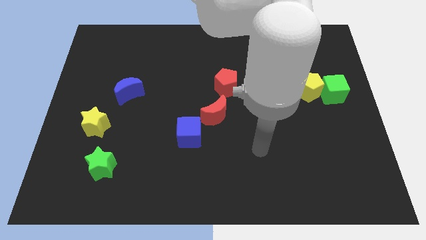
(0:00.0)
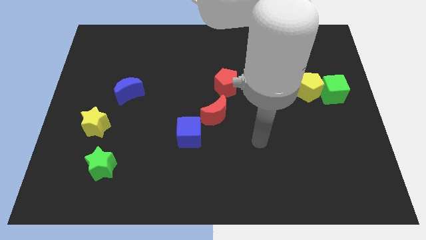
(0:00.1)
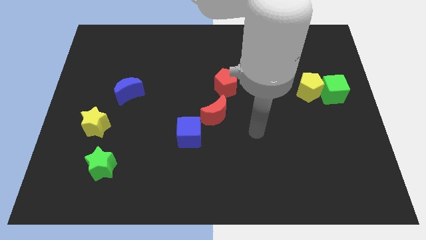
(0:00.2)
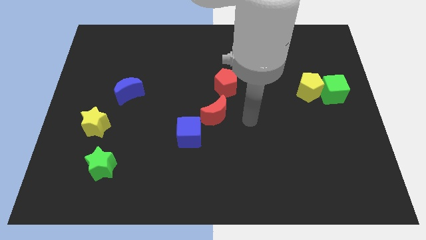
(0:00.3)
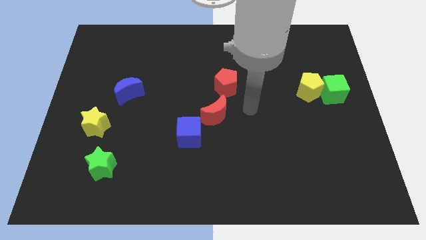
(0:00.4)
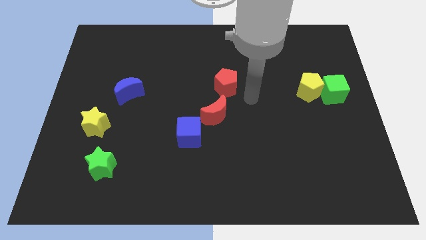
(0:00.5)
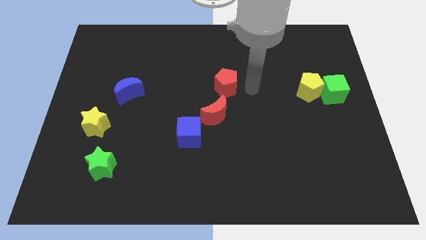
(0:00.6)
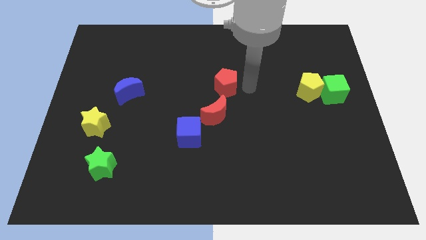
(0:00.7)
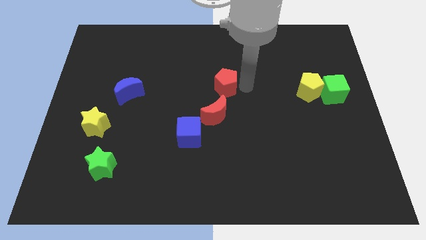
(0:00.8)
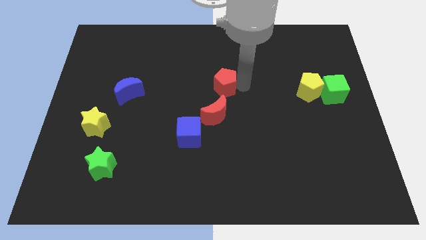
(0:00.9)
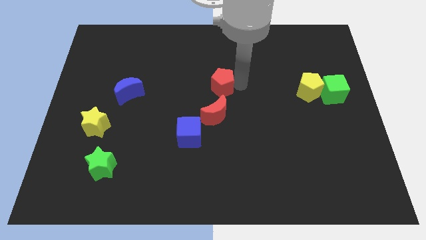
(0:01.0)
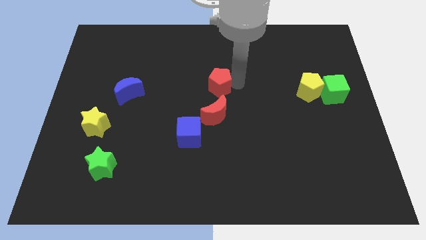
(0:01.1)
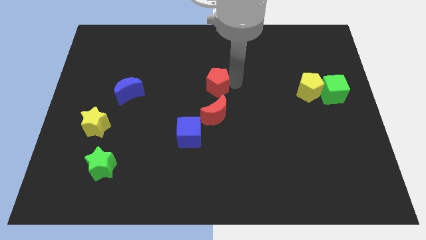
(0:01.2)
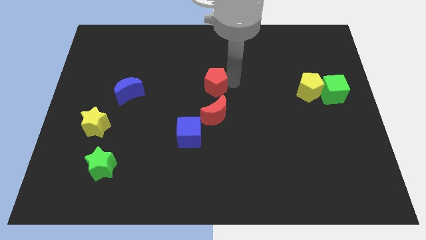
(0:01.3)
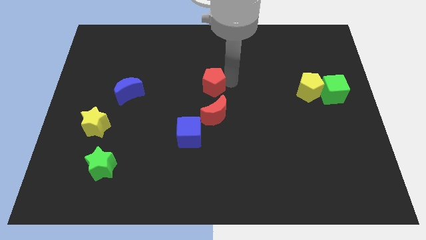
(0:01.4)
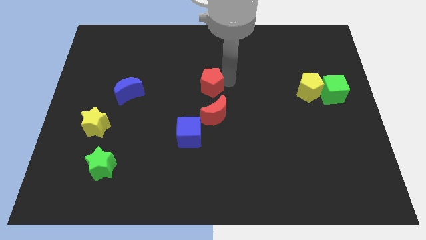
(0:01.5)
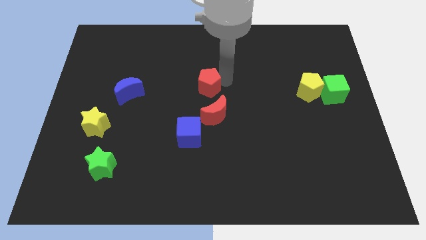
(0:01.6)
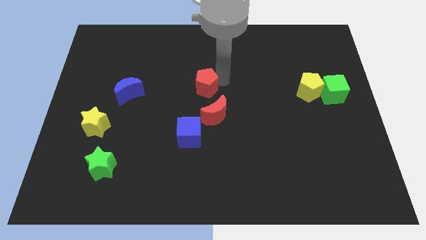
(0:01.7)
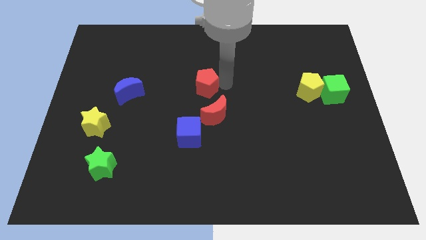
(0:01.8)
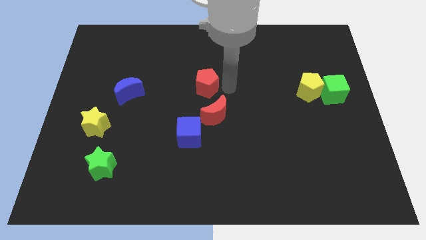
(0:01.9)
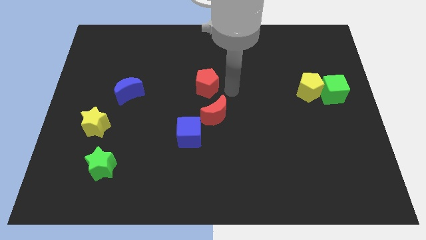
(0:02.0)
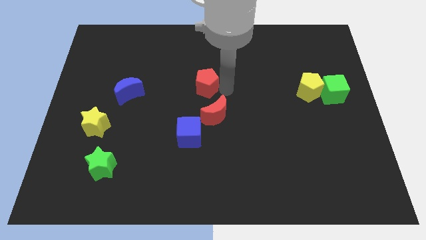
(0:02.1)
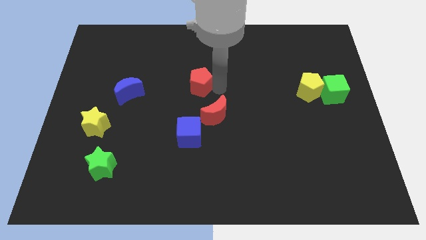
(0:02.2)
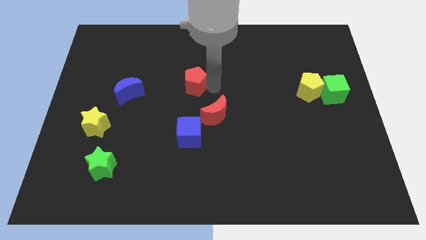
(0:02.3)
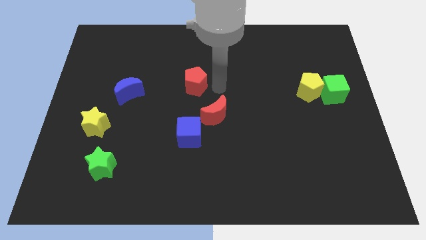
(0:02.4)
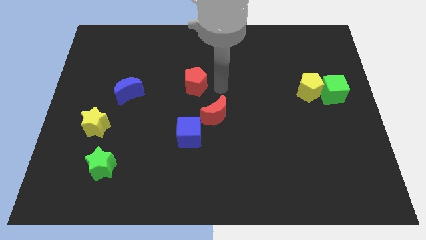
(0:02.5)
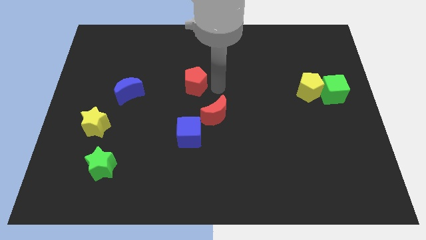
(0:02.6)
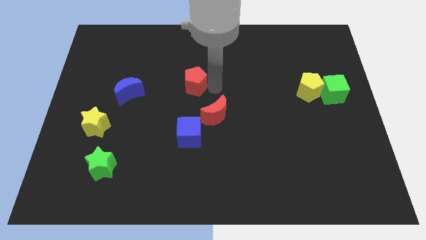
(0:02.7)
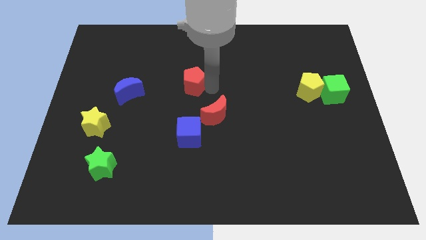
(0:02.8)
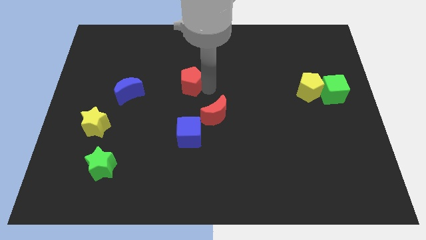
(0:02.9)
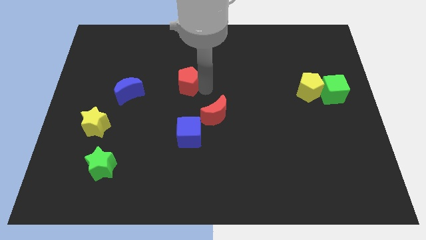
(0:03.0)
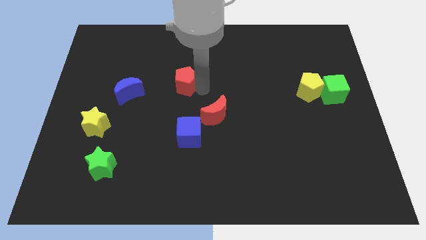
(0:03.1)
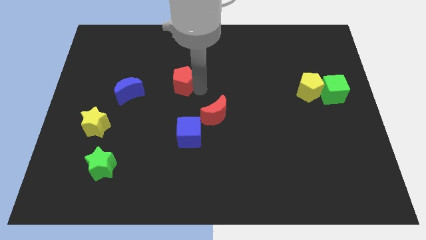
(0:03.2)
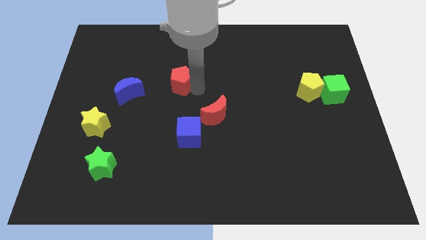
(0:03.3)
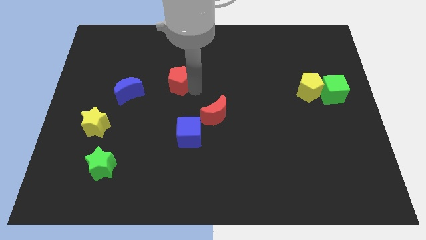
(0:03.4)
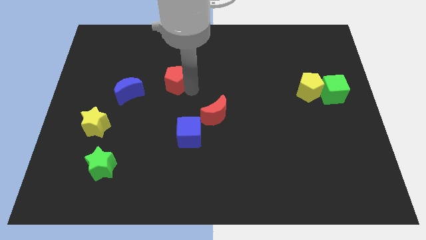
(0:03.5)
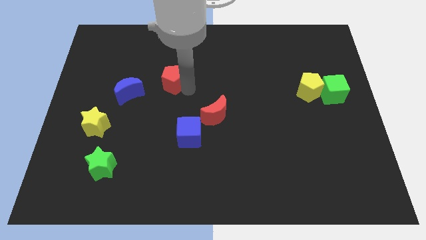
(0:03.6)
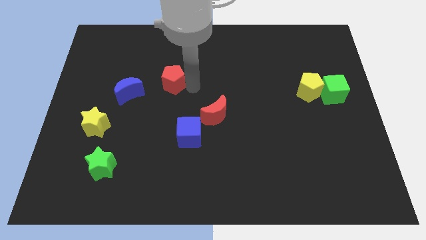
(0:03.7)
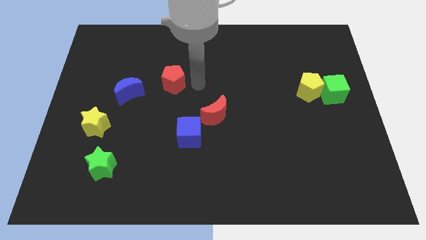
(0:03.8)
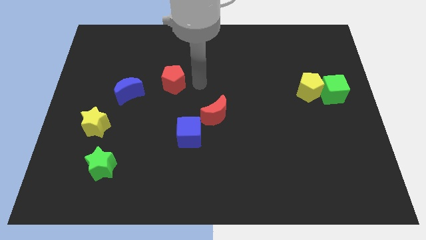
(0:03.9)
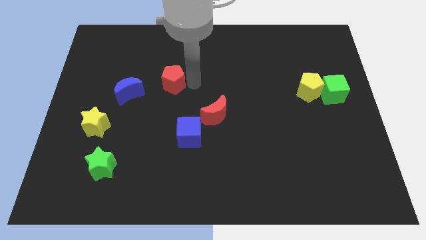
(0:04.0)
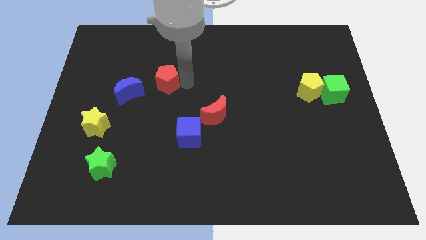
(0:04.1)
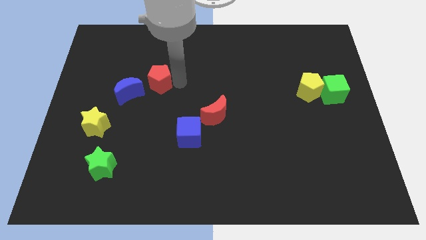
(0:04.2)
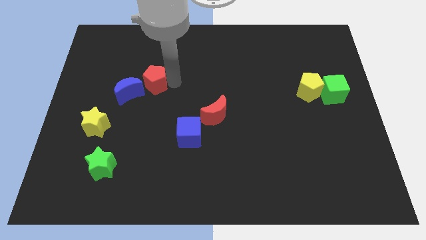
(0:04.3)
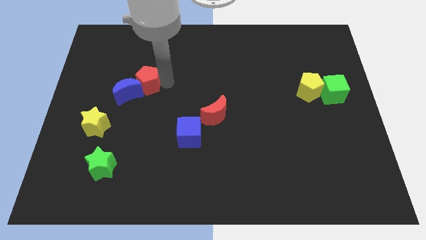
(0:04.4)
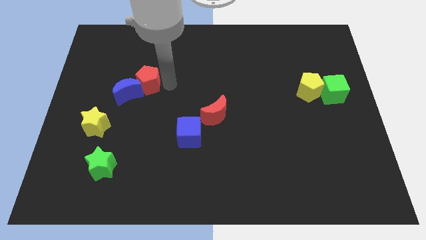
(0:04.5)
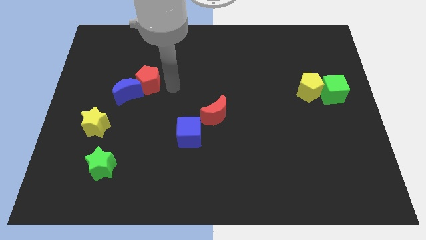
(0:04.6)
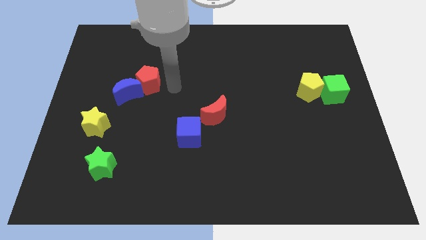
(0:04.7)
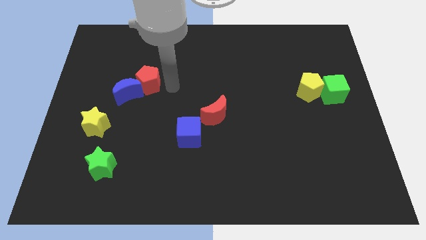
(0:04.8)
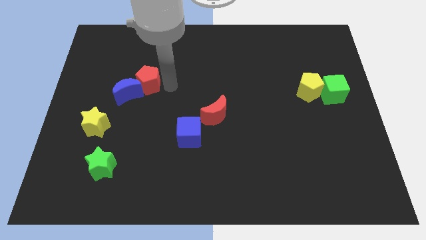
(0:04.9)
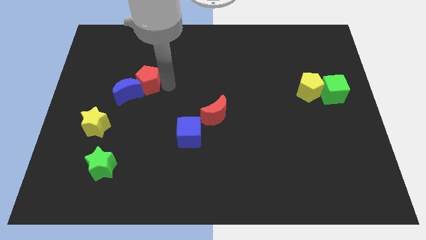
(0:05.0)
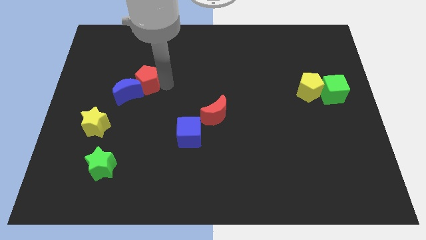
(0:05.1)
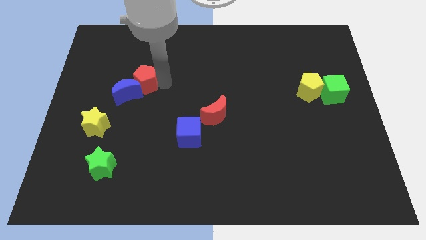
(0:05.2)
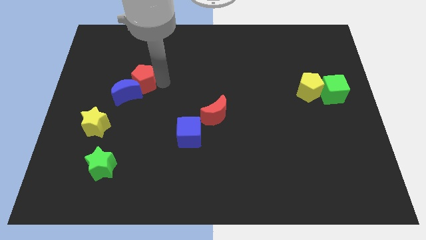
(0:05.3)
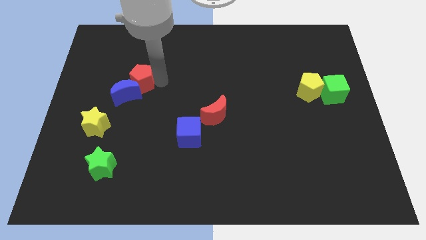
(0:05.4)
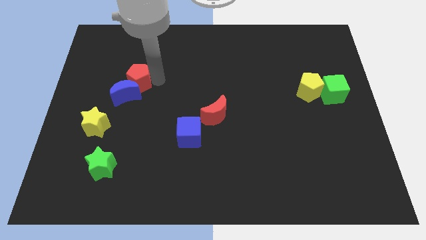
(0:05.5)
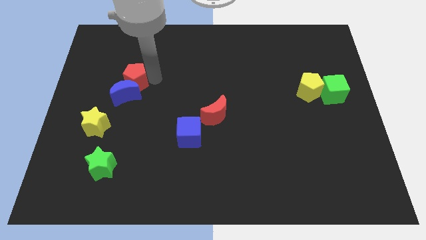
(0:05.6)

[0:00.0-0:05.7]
push the red pentagon to the top left of the blue moon

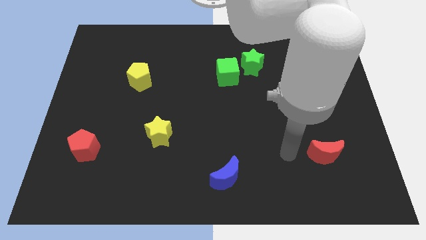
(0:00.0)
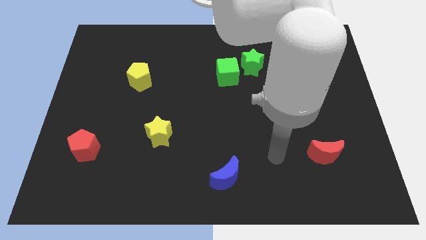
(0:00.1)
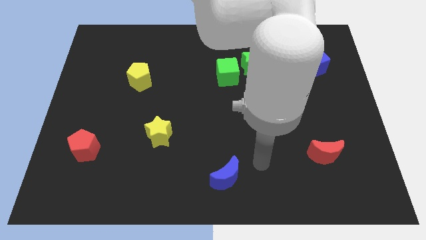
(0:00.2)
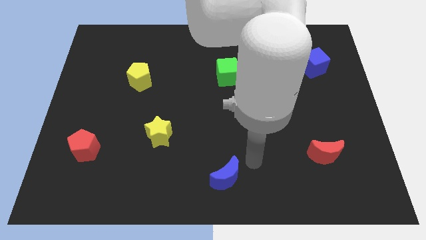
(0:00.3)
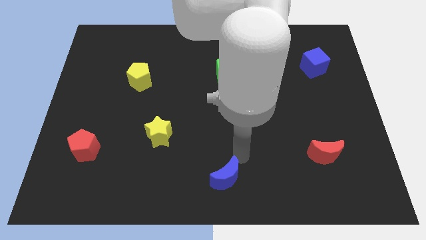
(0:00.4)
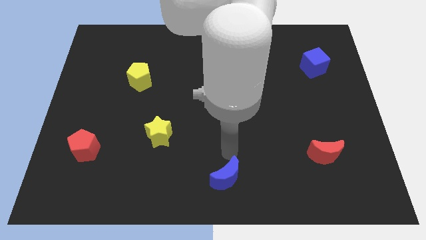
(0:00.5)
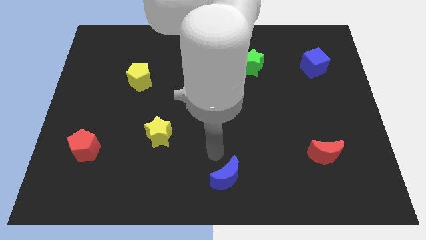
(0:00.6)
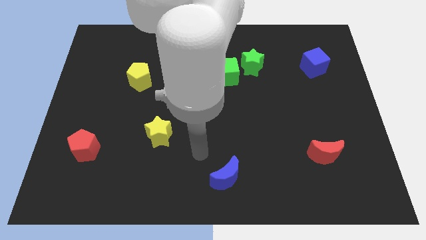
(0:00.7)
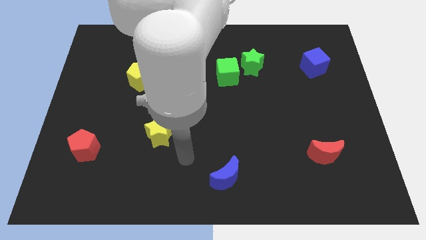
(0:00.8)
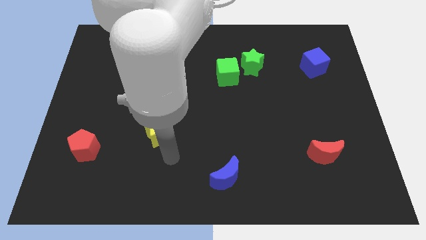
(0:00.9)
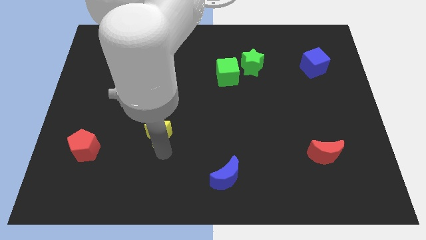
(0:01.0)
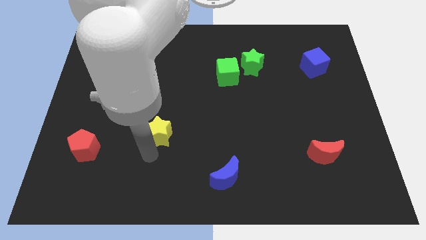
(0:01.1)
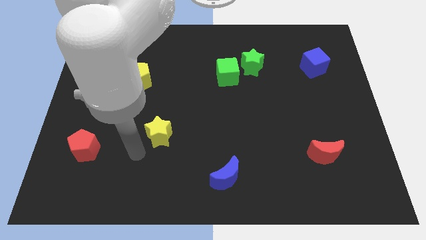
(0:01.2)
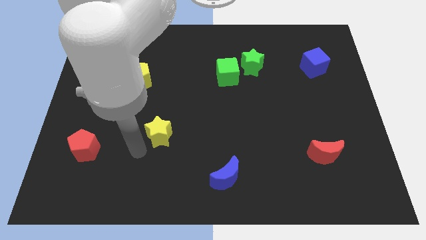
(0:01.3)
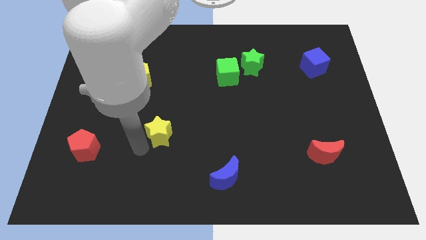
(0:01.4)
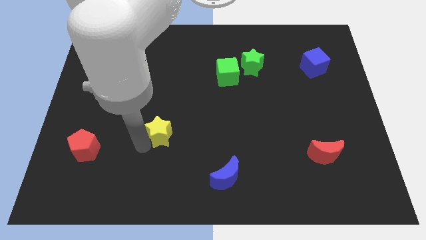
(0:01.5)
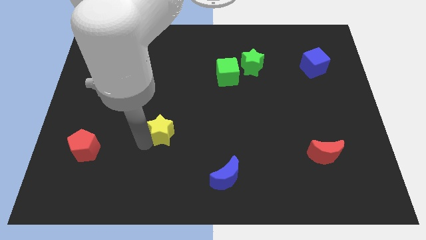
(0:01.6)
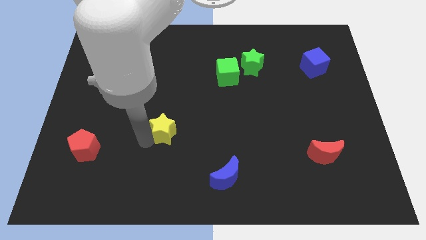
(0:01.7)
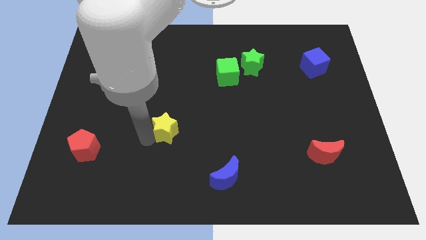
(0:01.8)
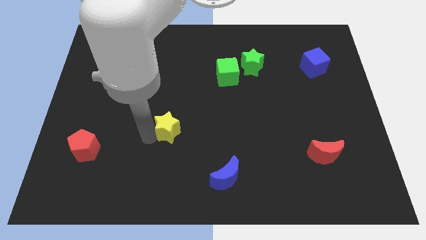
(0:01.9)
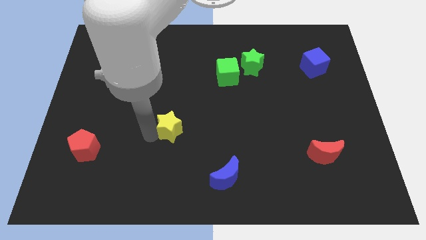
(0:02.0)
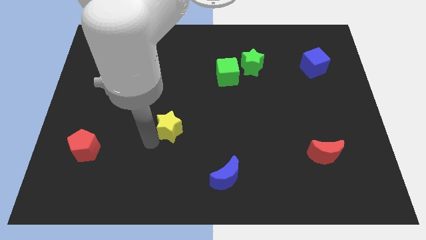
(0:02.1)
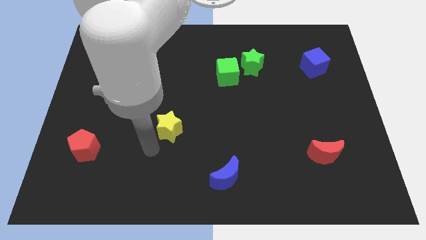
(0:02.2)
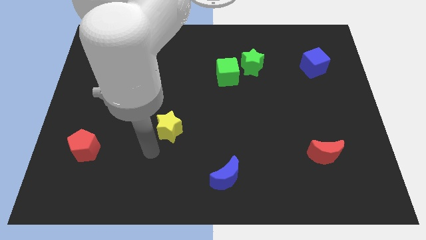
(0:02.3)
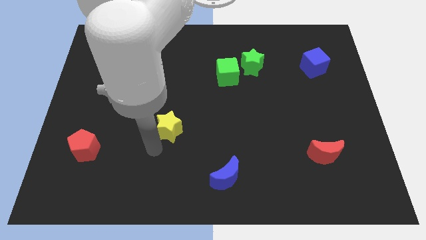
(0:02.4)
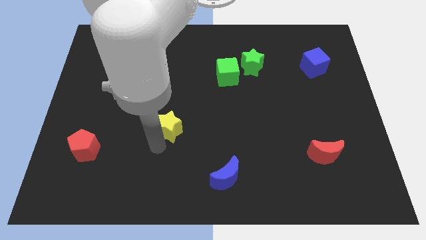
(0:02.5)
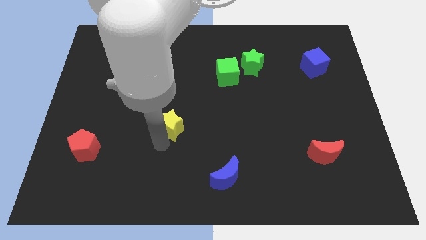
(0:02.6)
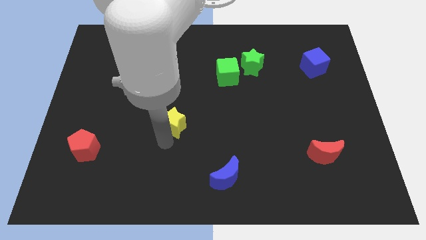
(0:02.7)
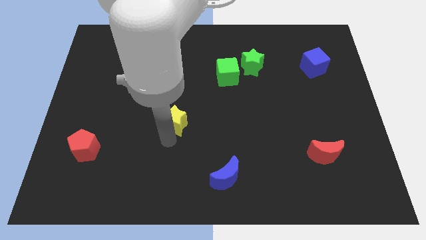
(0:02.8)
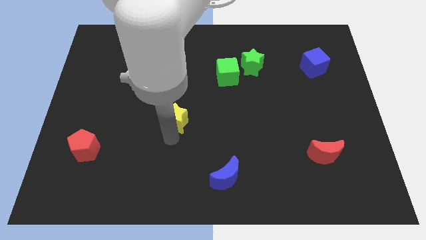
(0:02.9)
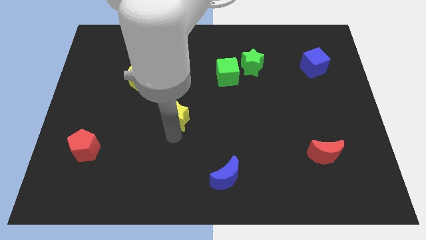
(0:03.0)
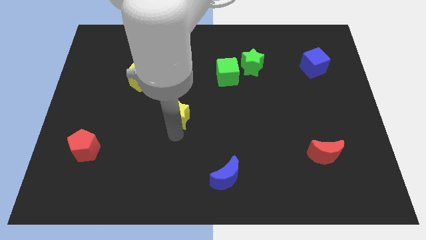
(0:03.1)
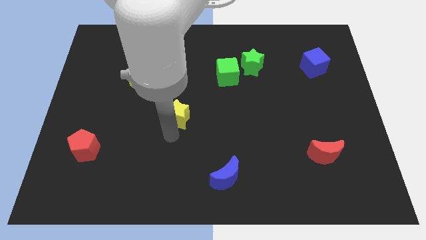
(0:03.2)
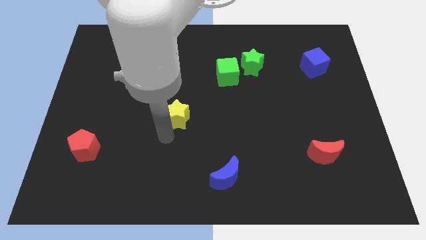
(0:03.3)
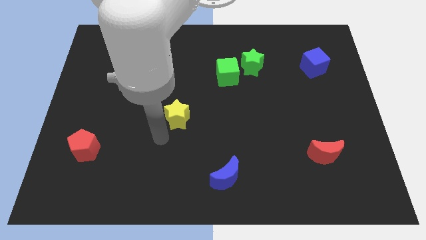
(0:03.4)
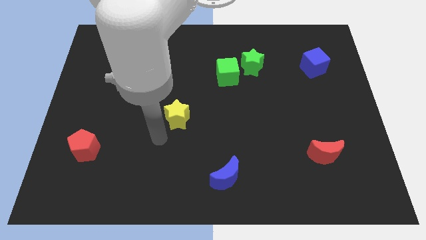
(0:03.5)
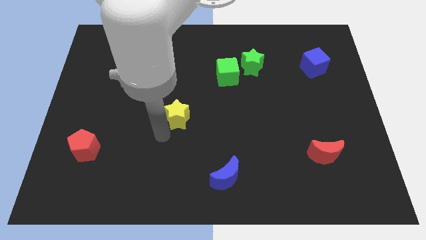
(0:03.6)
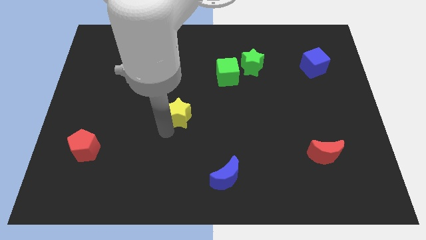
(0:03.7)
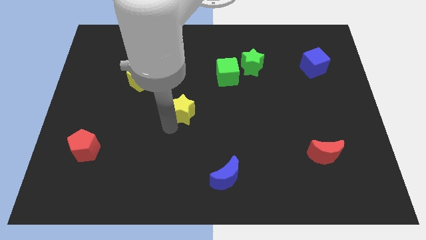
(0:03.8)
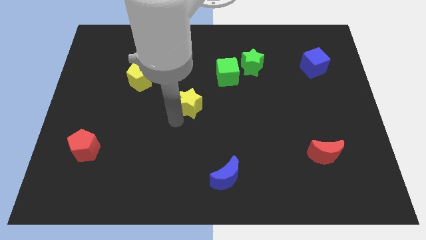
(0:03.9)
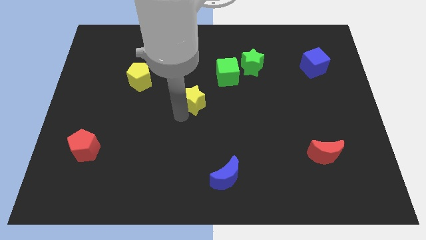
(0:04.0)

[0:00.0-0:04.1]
push the yellow star diagonally down and to the left of the green cube
